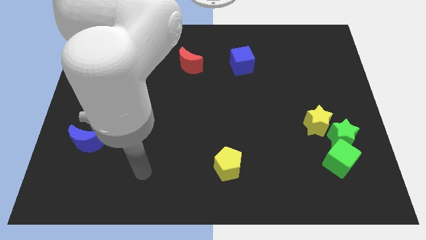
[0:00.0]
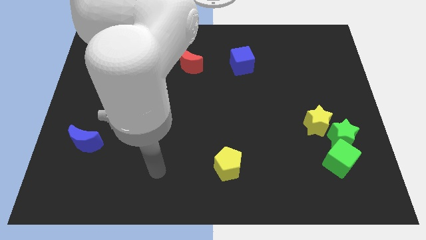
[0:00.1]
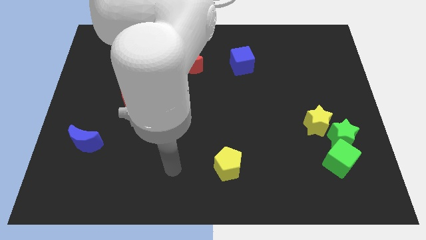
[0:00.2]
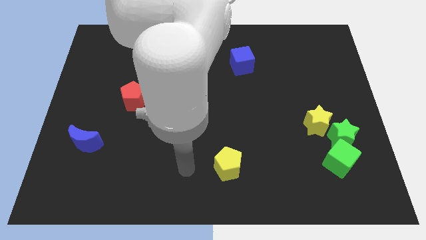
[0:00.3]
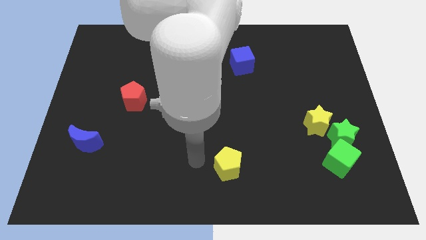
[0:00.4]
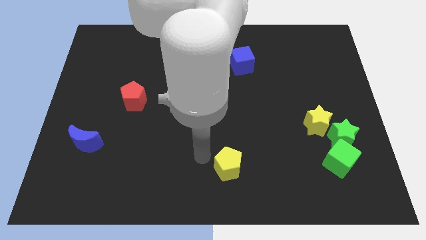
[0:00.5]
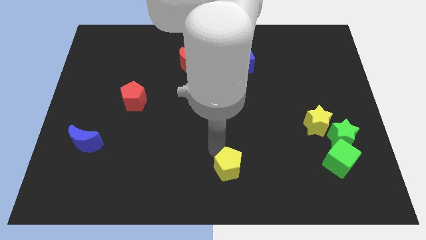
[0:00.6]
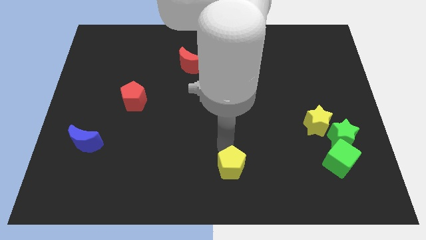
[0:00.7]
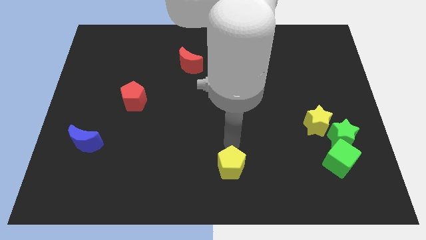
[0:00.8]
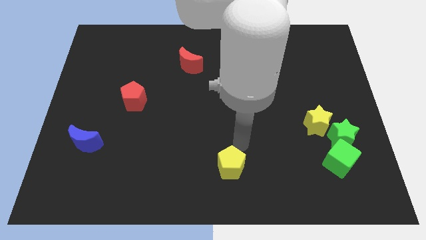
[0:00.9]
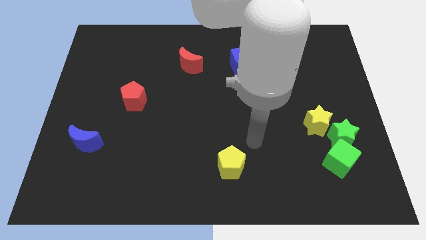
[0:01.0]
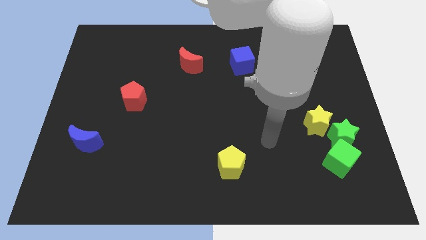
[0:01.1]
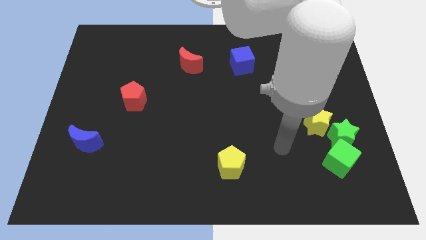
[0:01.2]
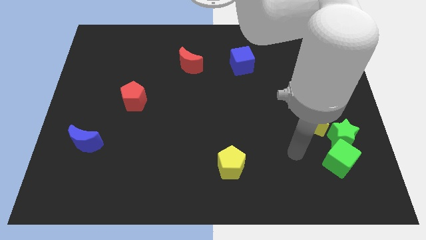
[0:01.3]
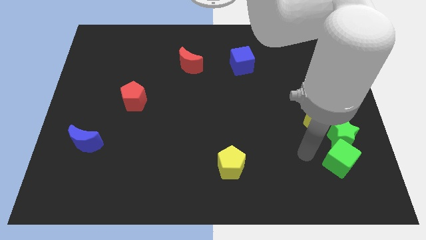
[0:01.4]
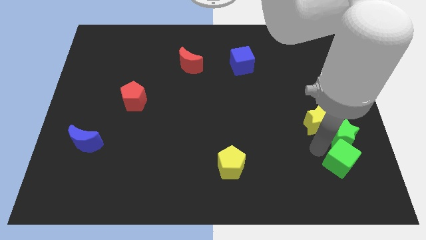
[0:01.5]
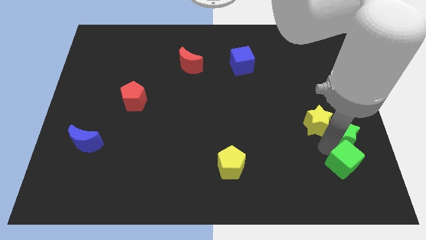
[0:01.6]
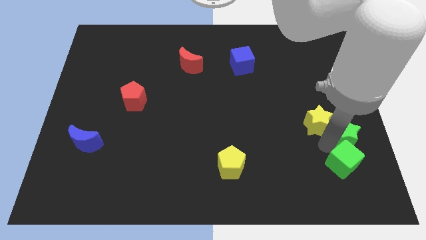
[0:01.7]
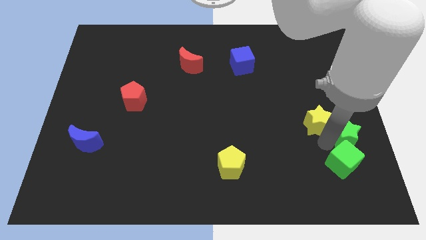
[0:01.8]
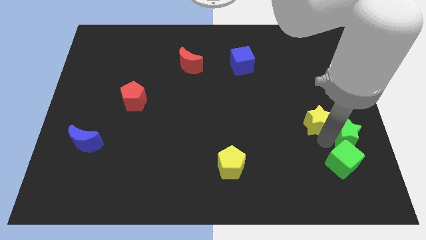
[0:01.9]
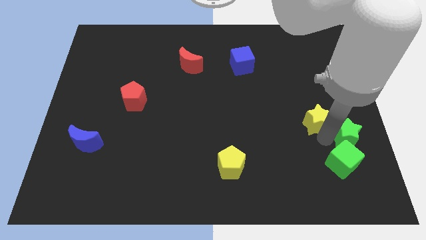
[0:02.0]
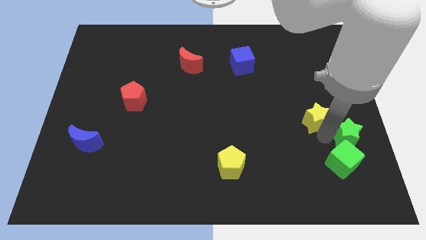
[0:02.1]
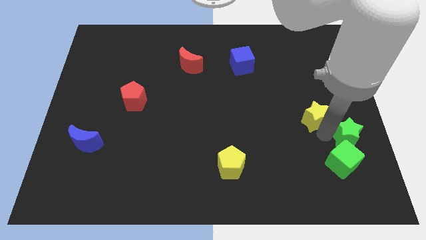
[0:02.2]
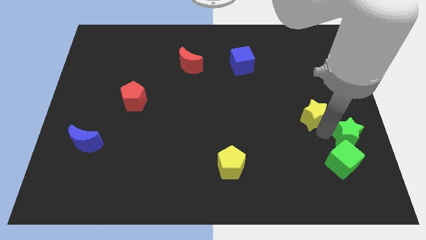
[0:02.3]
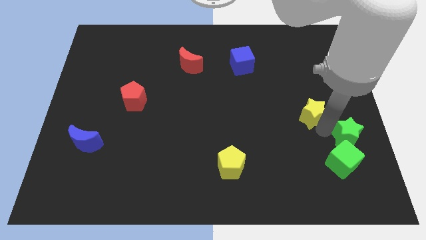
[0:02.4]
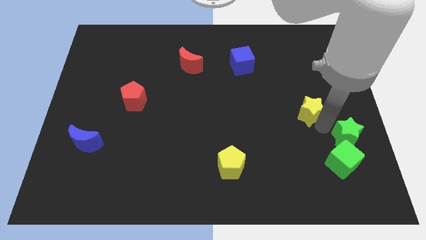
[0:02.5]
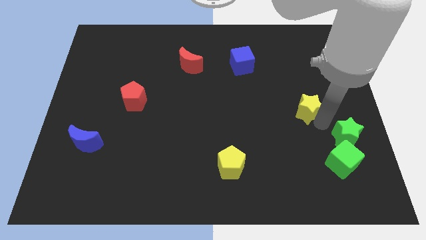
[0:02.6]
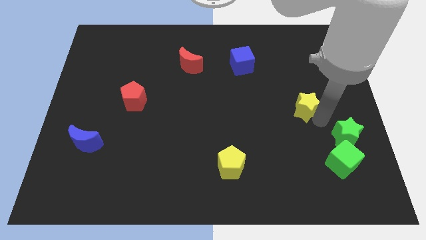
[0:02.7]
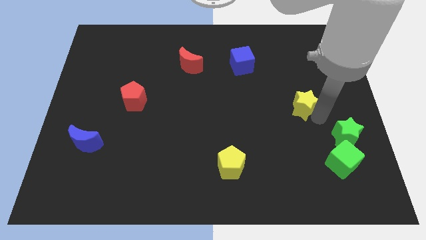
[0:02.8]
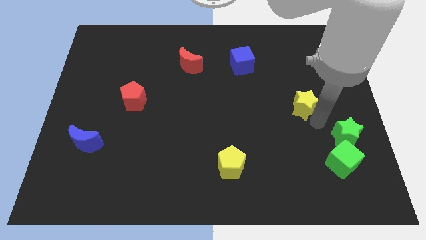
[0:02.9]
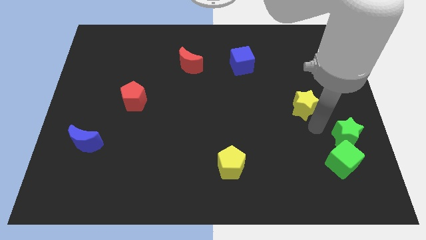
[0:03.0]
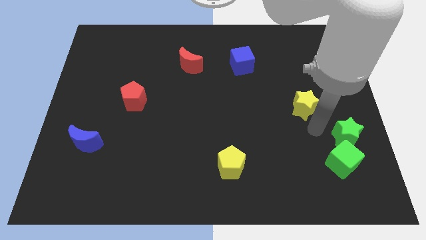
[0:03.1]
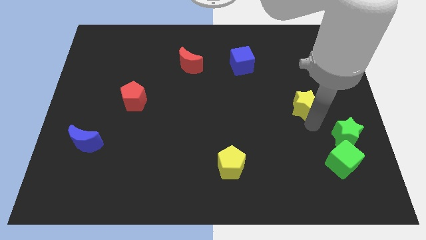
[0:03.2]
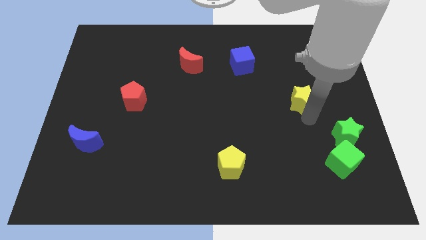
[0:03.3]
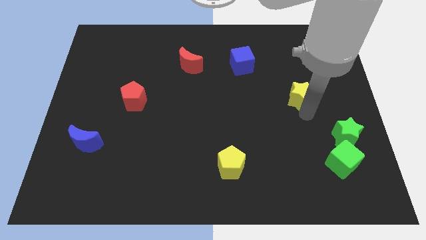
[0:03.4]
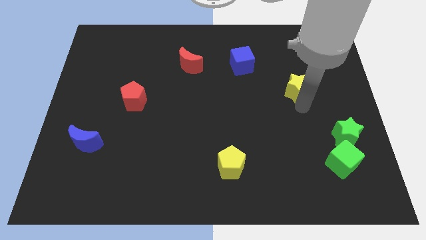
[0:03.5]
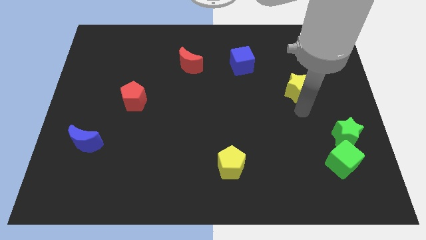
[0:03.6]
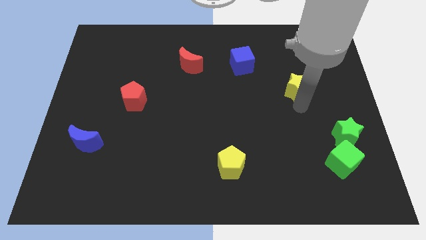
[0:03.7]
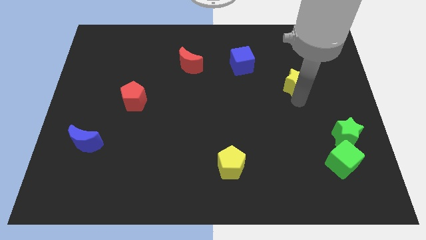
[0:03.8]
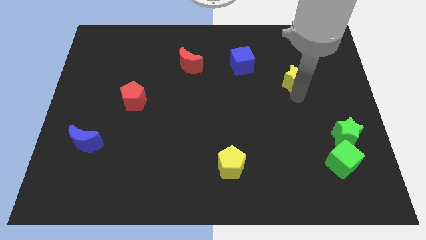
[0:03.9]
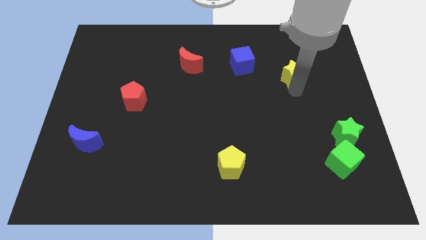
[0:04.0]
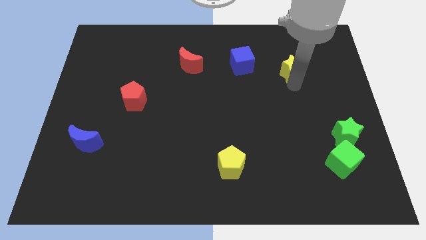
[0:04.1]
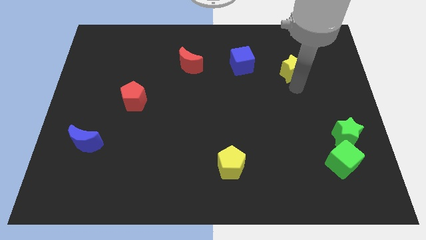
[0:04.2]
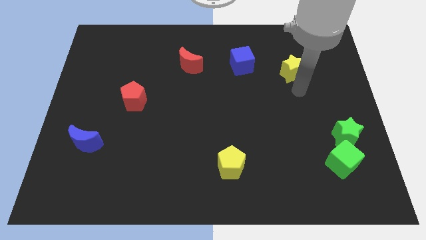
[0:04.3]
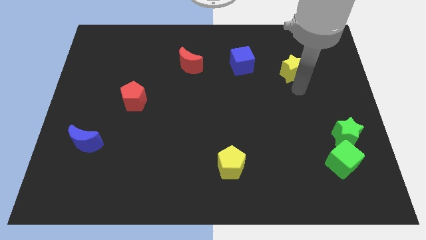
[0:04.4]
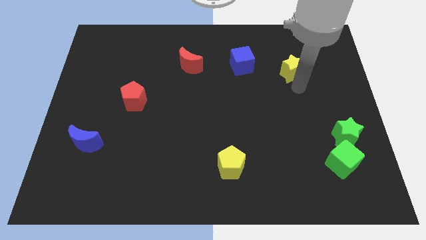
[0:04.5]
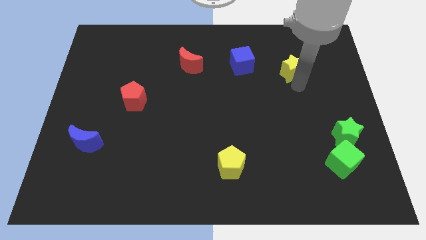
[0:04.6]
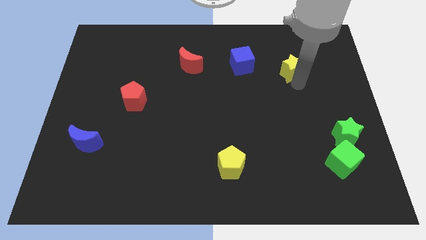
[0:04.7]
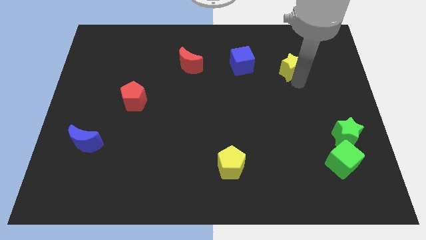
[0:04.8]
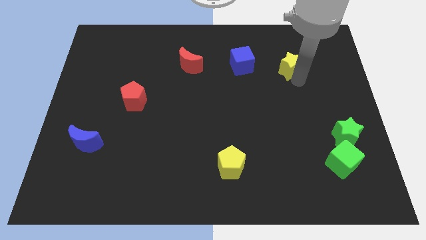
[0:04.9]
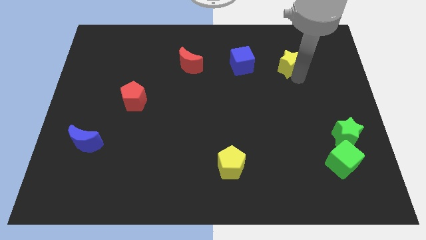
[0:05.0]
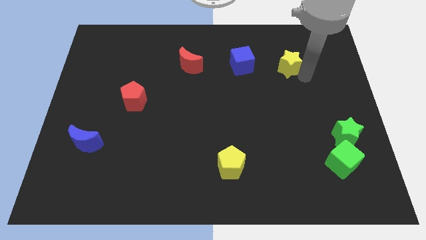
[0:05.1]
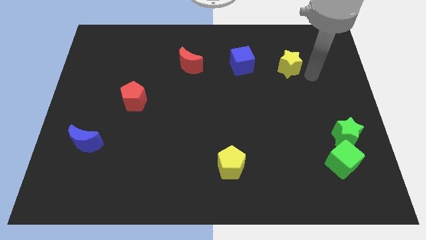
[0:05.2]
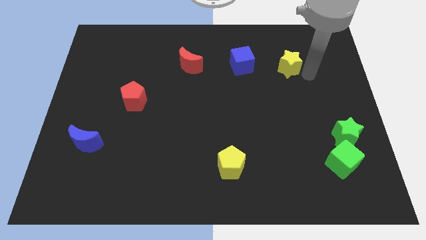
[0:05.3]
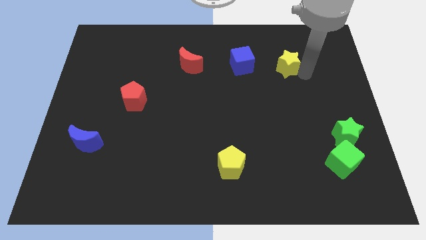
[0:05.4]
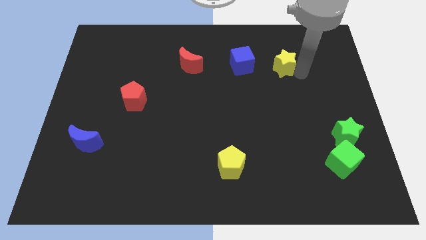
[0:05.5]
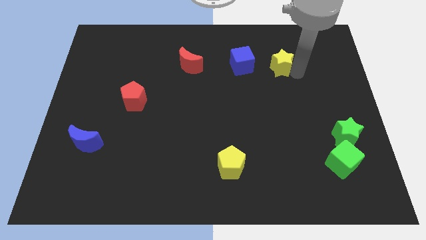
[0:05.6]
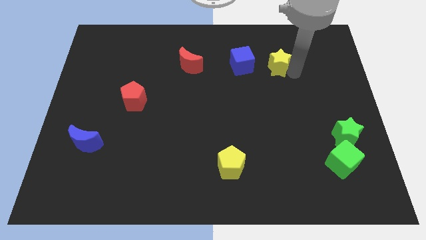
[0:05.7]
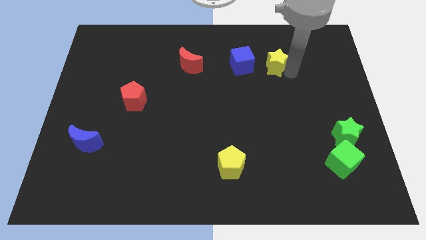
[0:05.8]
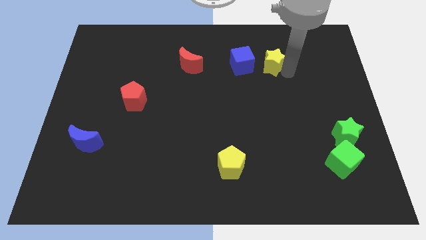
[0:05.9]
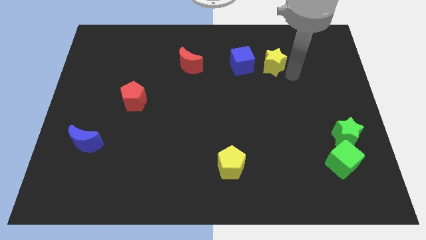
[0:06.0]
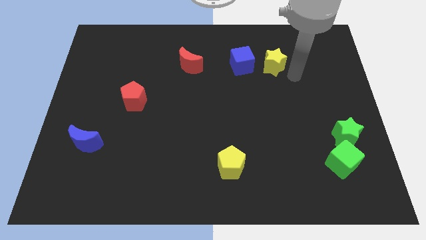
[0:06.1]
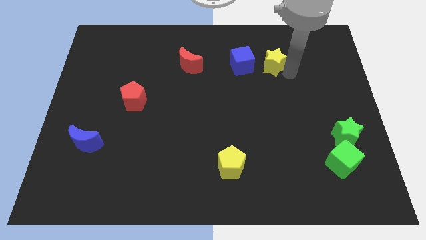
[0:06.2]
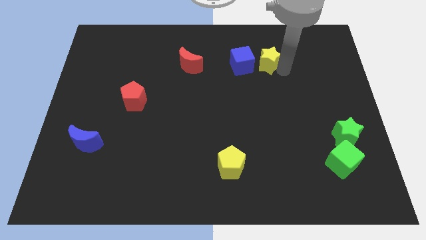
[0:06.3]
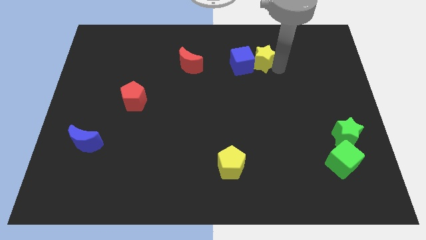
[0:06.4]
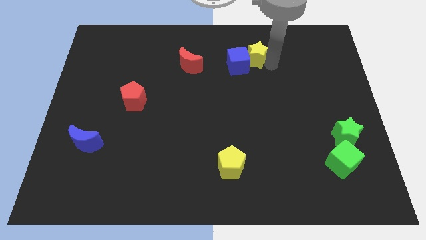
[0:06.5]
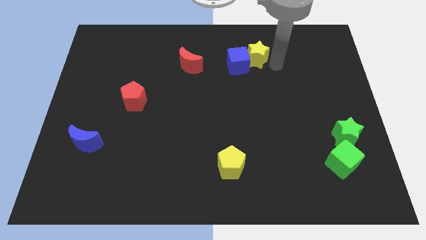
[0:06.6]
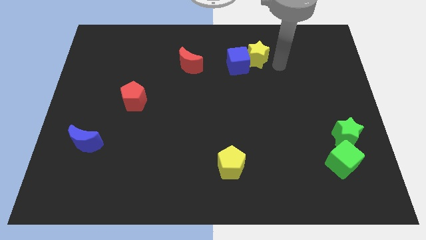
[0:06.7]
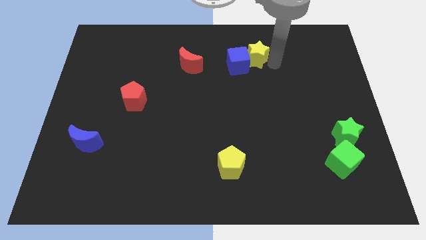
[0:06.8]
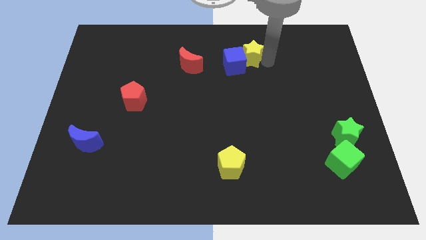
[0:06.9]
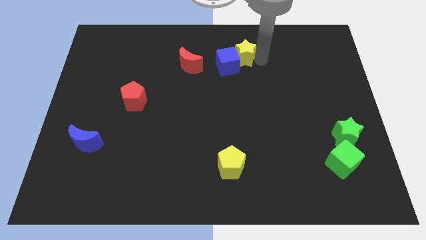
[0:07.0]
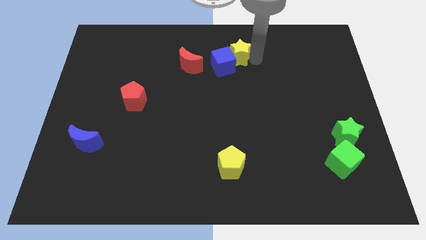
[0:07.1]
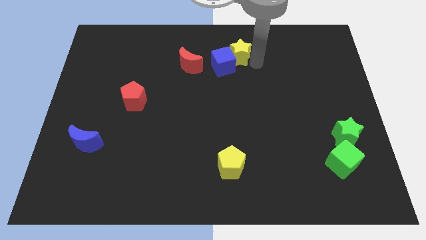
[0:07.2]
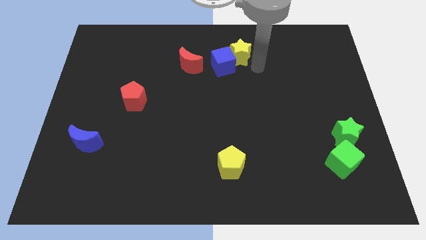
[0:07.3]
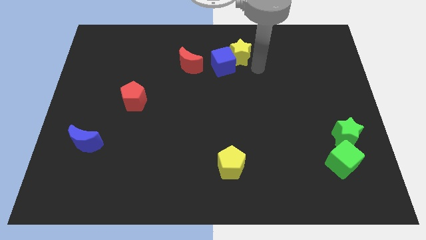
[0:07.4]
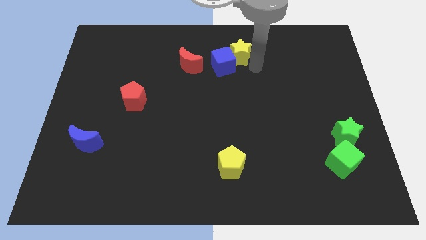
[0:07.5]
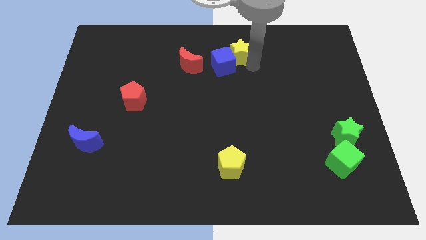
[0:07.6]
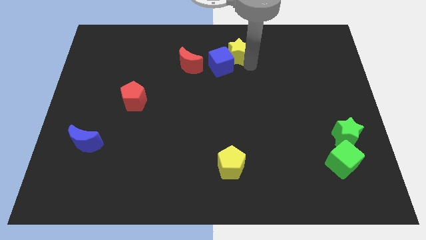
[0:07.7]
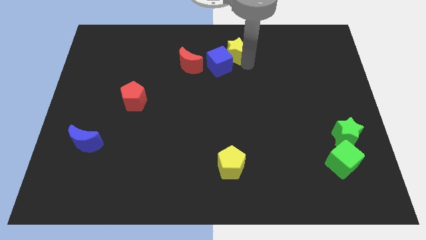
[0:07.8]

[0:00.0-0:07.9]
slide the yellow star to the towards your base
